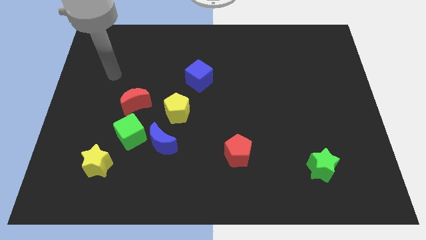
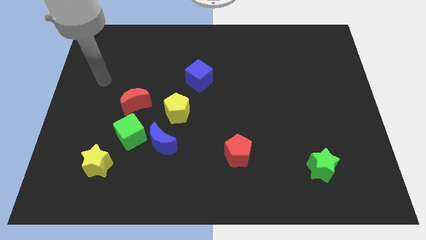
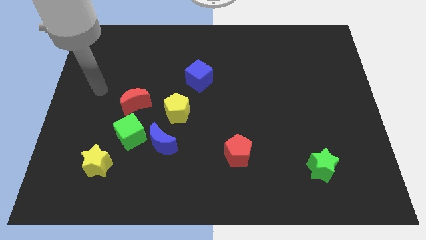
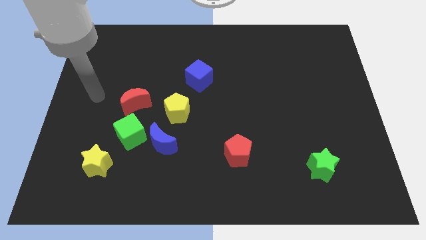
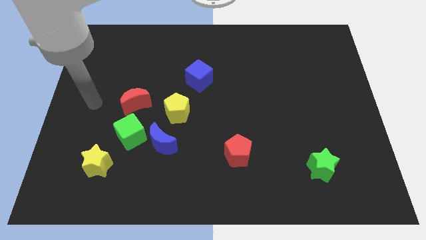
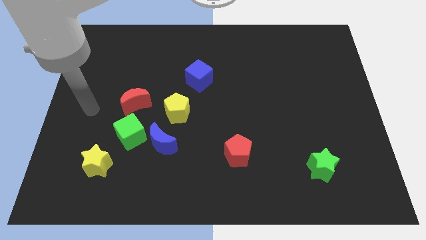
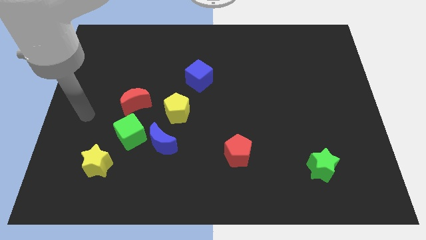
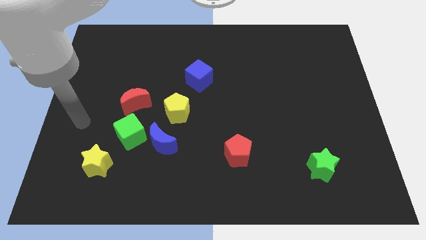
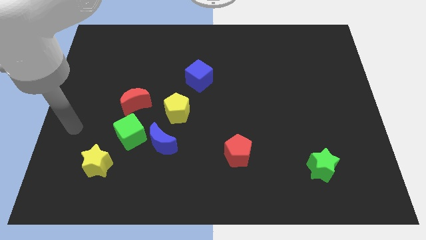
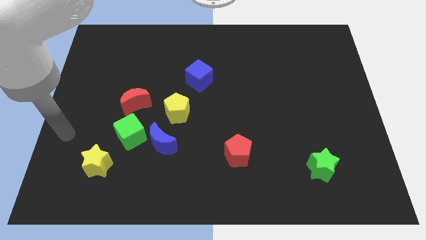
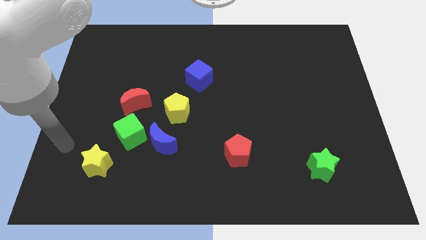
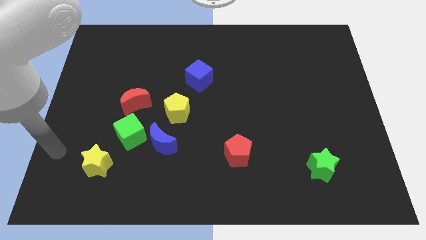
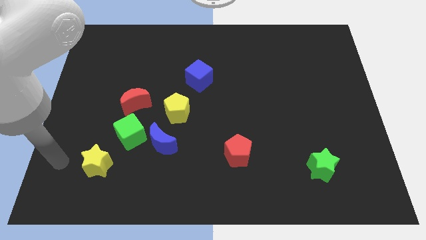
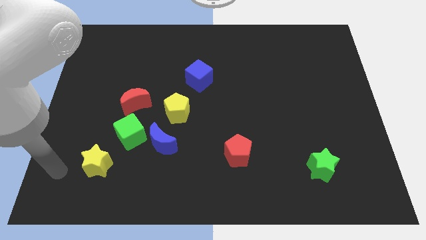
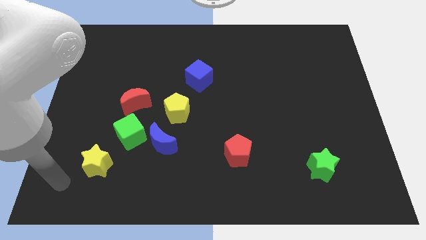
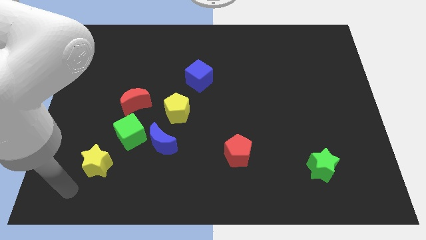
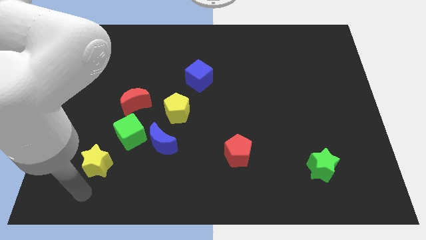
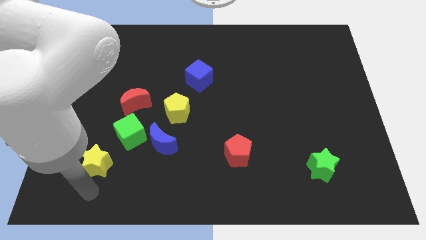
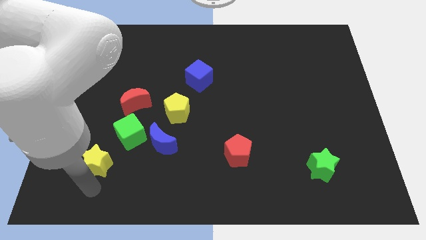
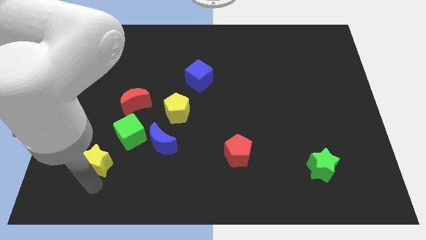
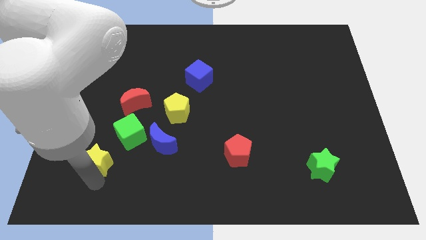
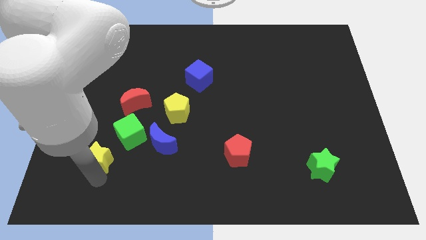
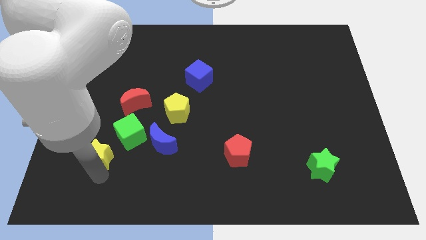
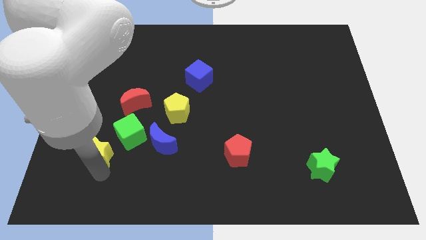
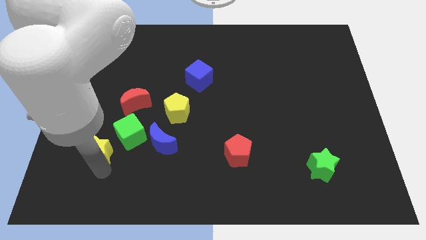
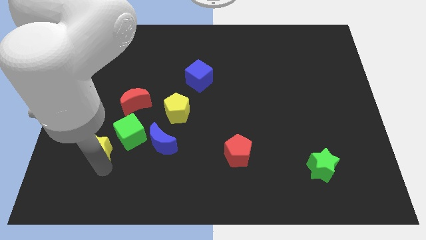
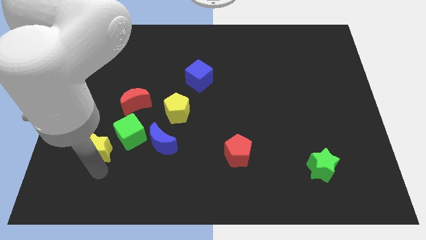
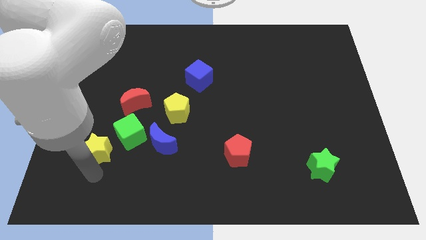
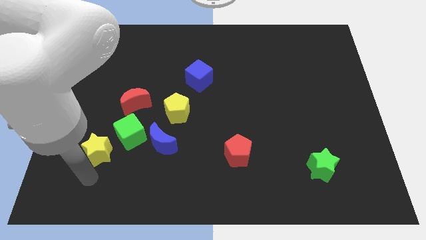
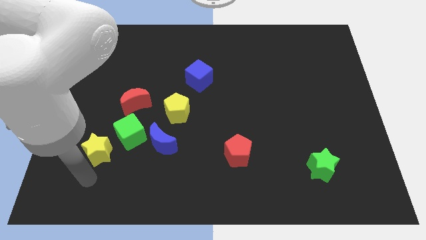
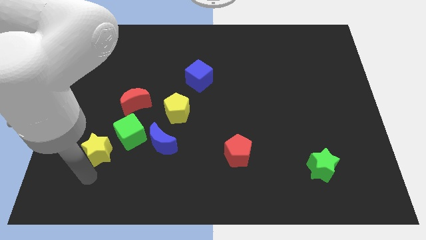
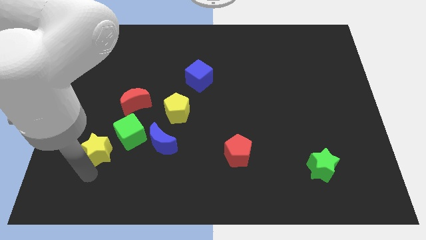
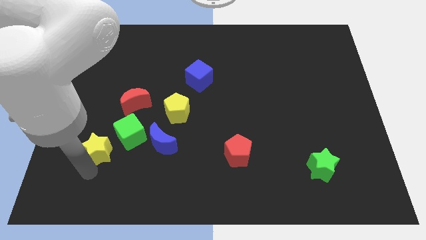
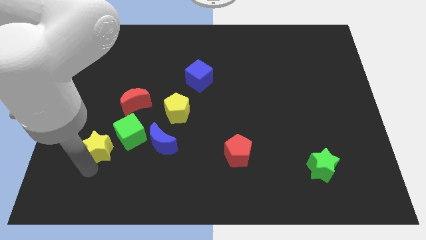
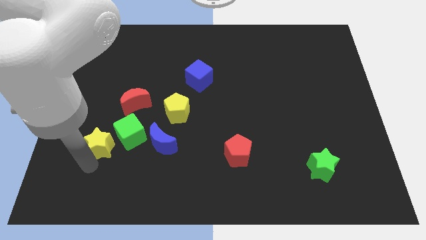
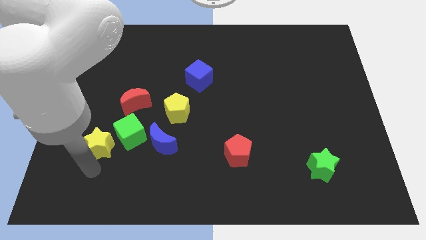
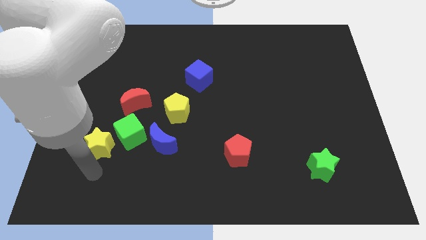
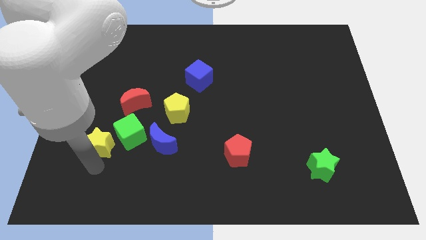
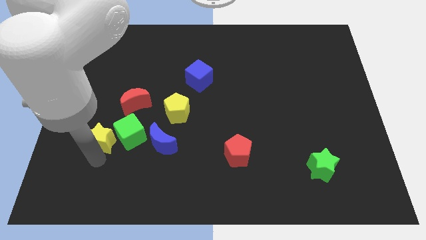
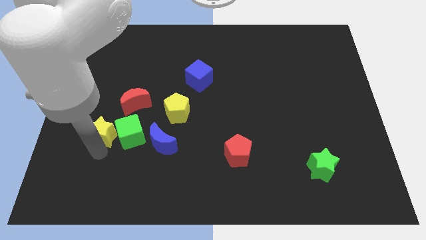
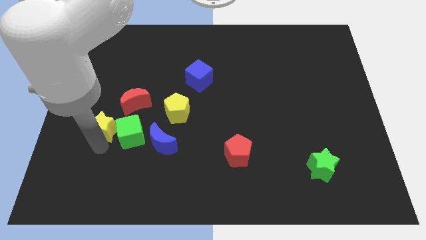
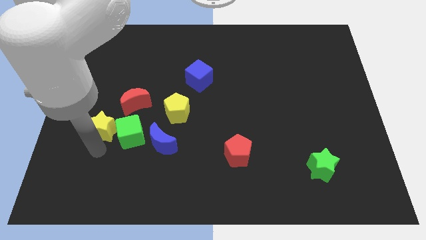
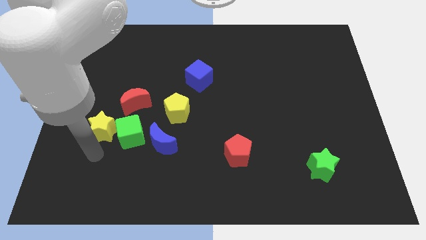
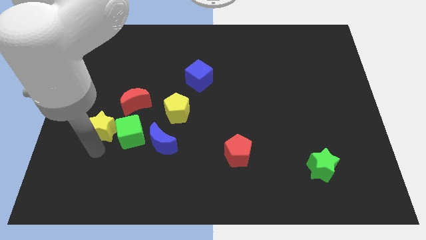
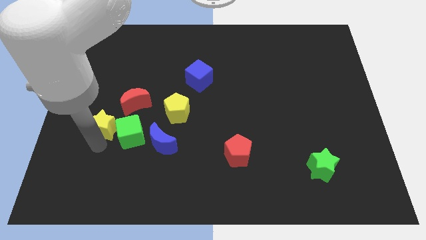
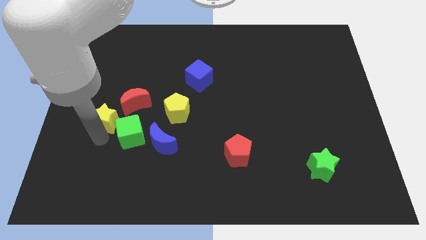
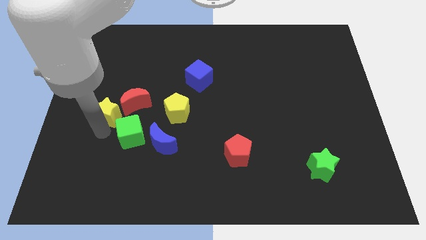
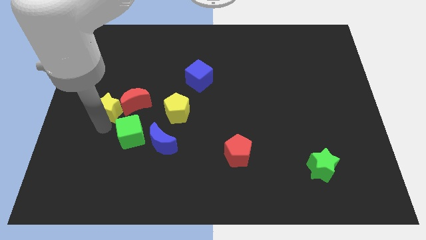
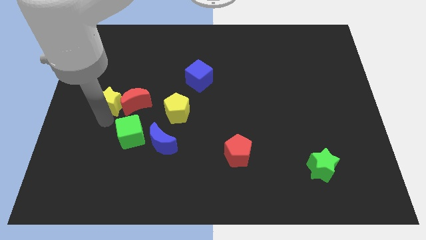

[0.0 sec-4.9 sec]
move the yellow star to the top left of the red moon

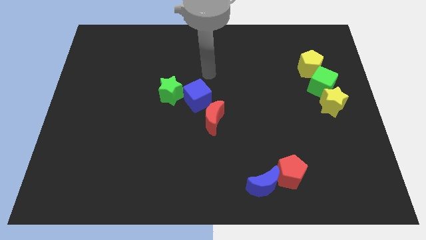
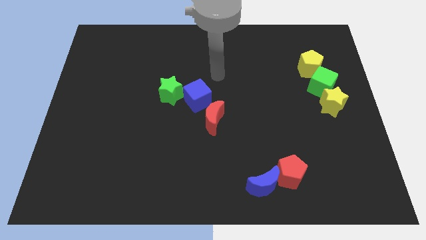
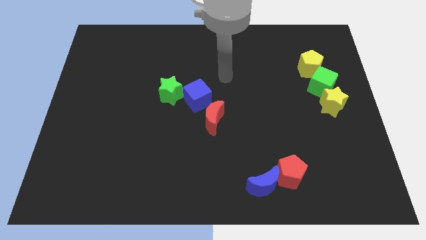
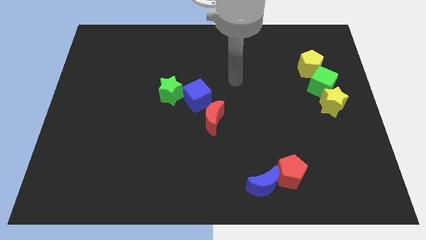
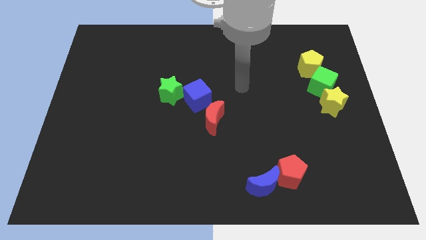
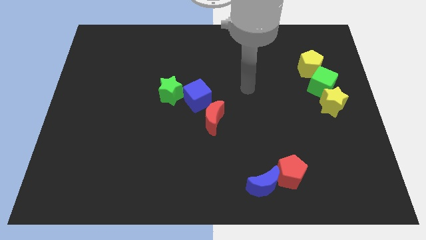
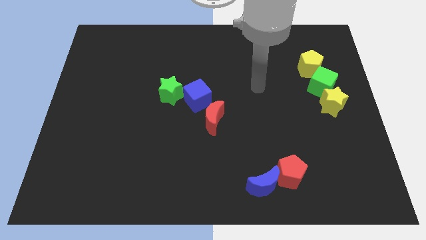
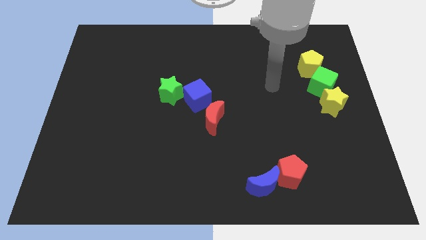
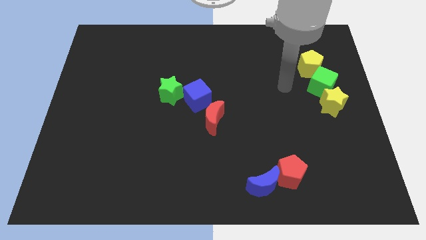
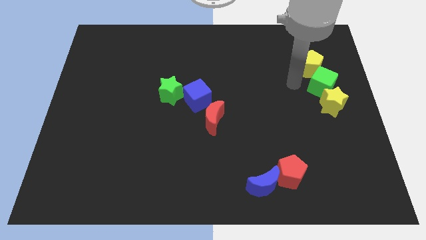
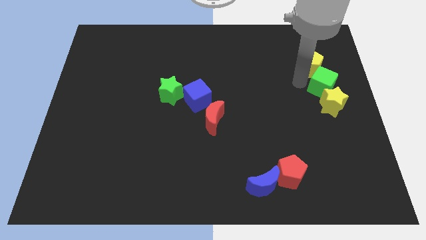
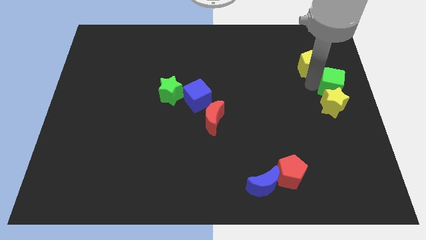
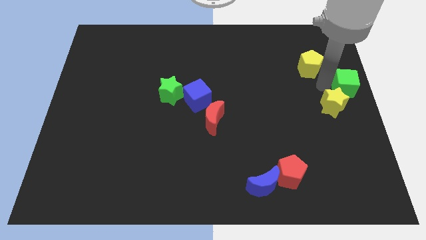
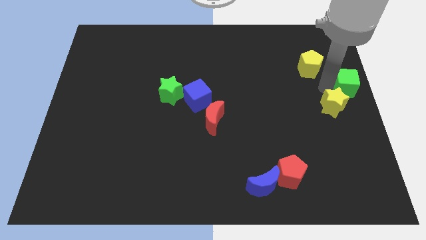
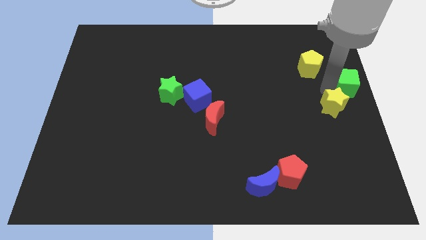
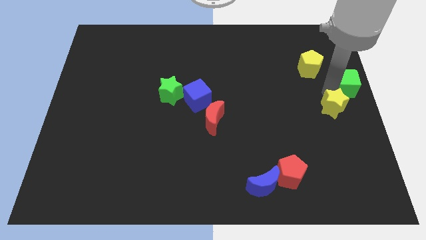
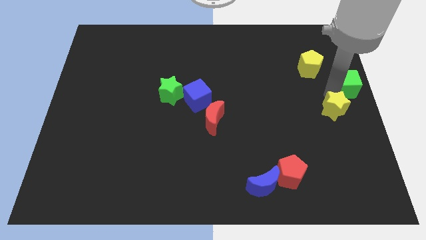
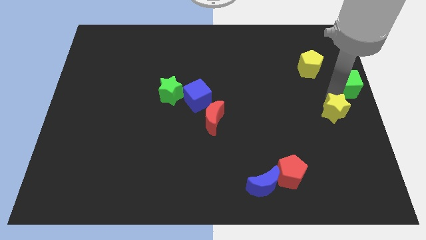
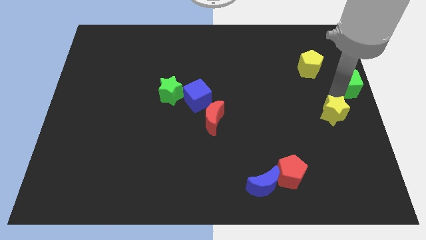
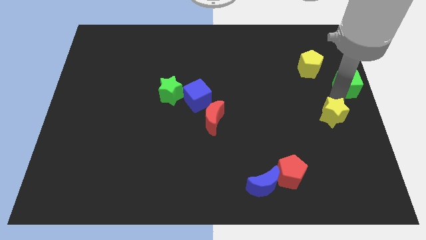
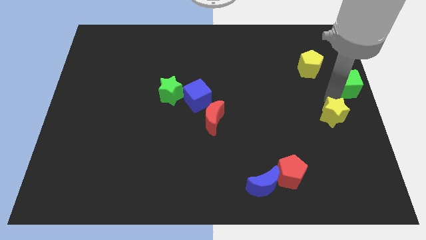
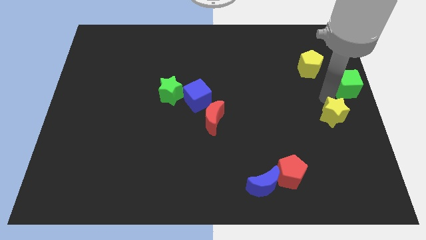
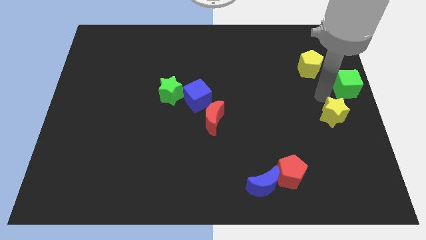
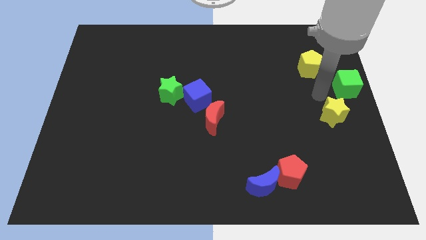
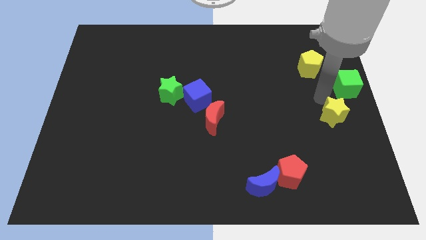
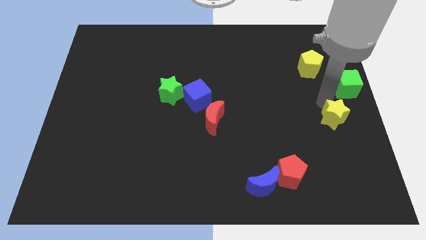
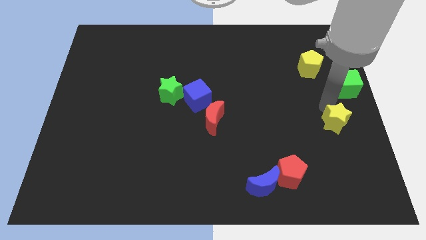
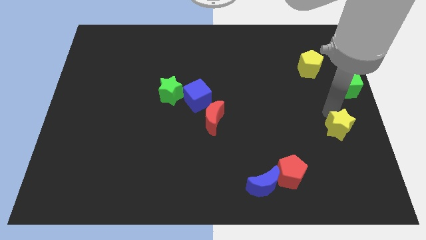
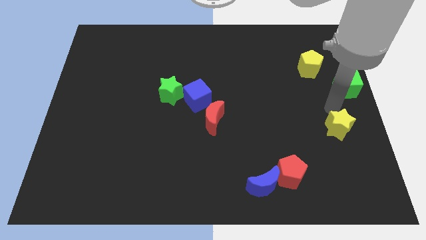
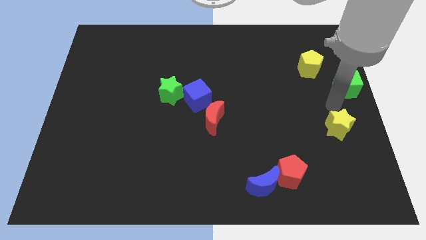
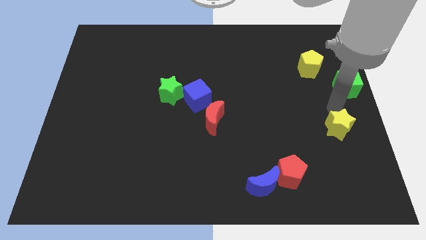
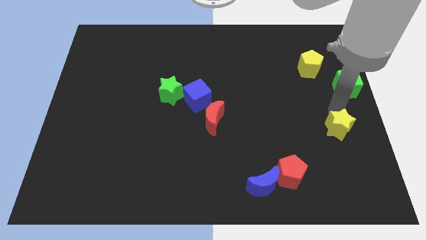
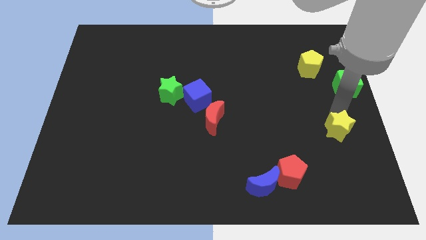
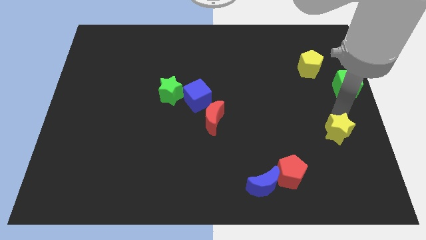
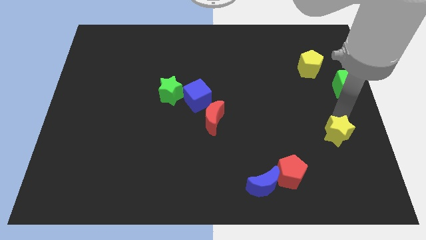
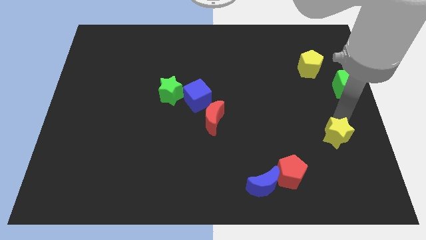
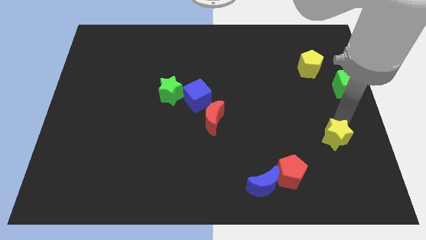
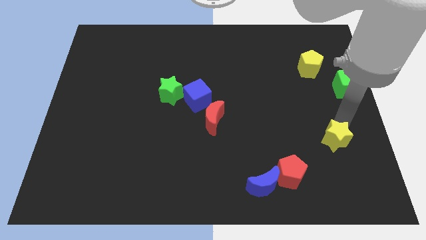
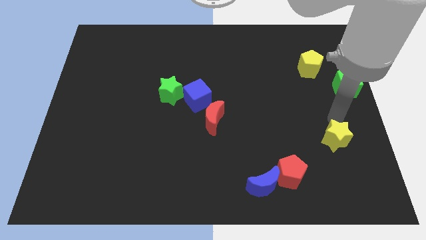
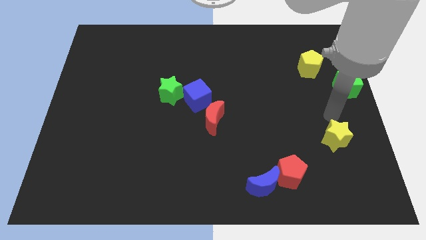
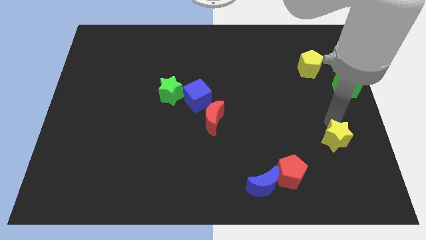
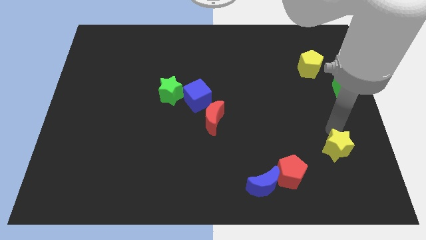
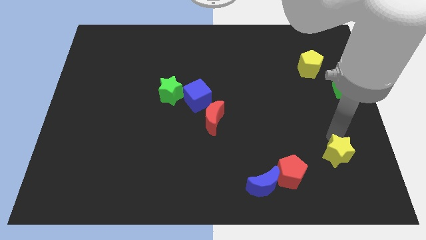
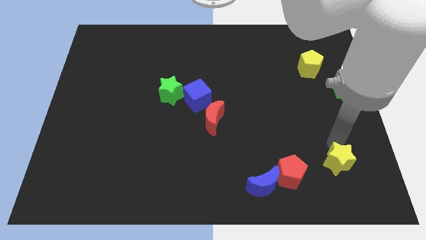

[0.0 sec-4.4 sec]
move the yellow star right of the red pentagon
